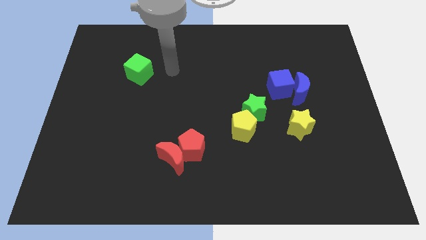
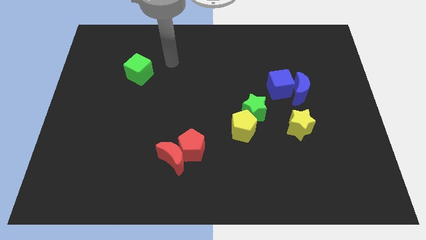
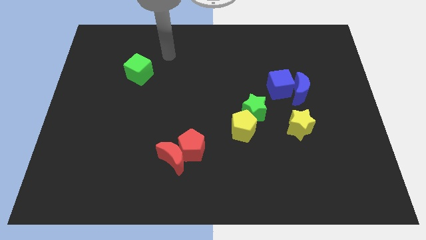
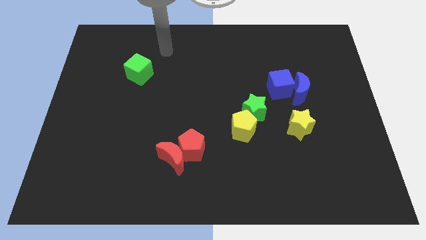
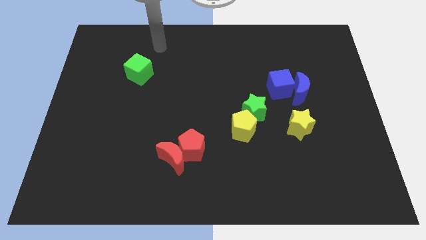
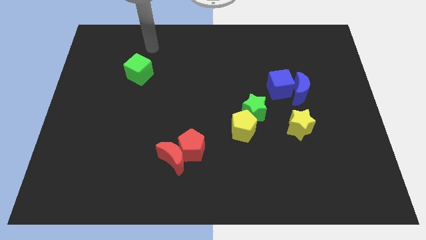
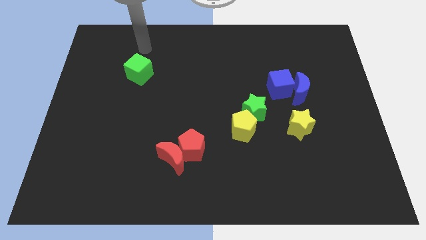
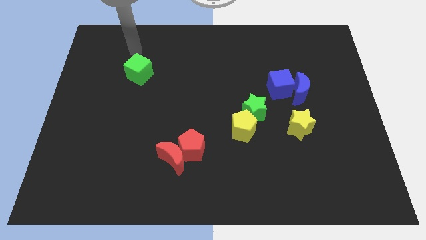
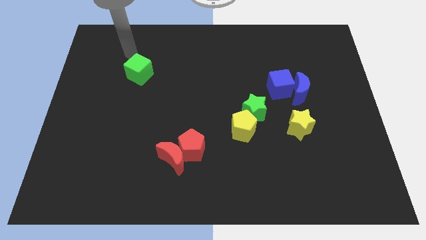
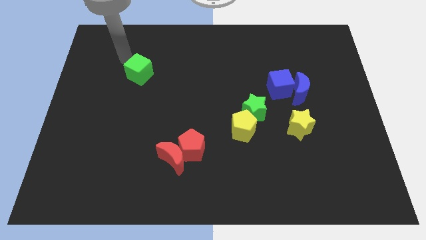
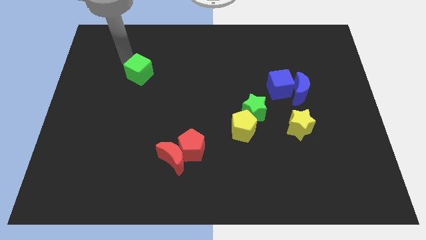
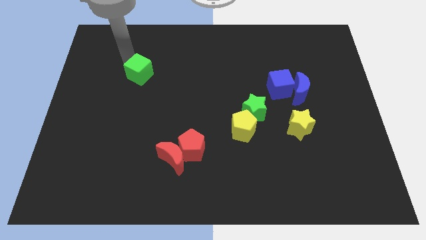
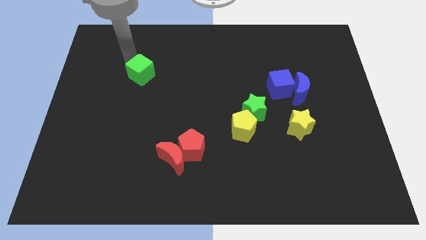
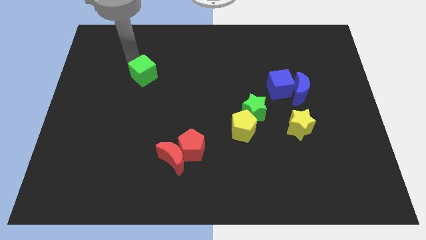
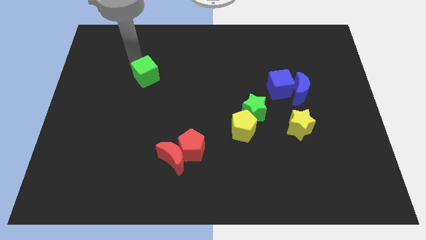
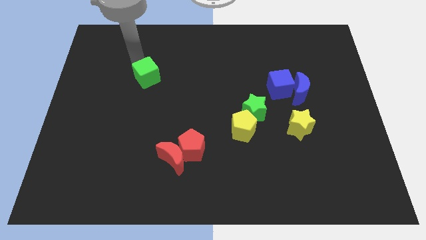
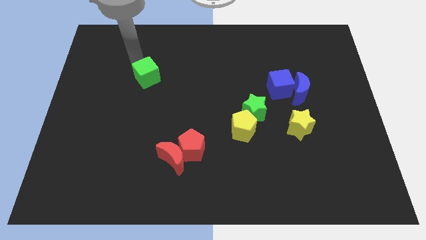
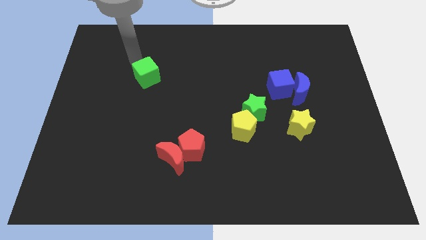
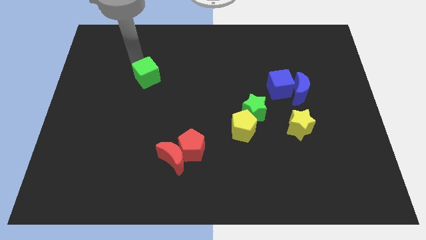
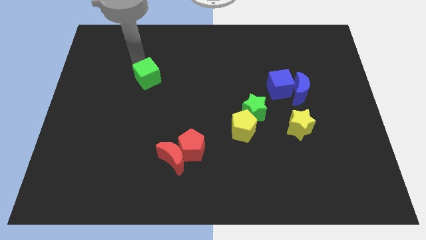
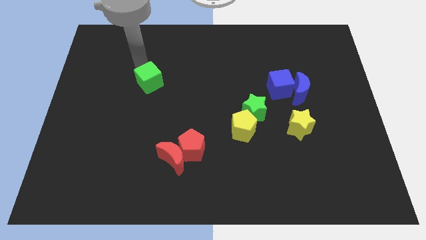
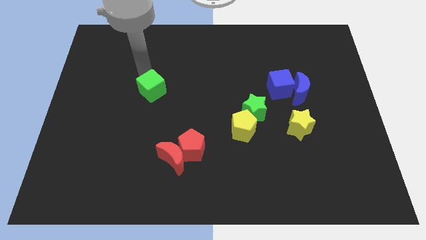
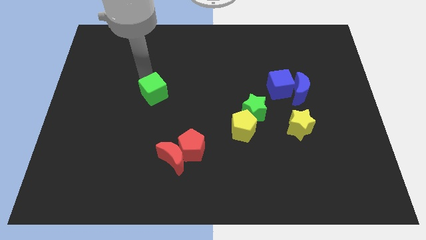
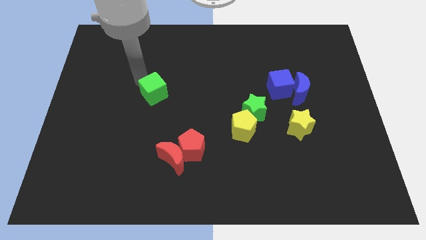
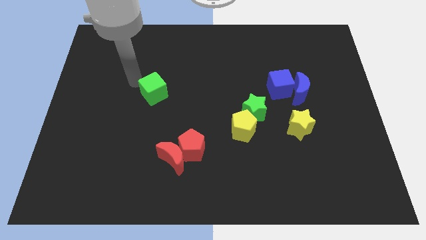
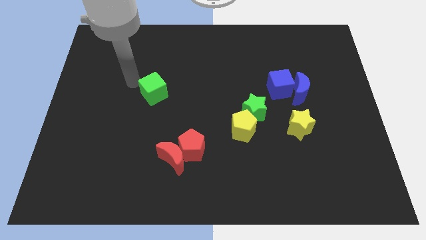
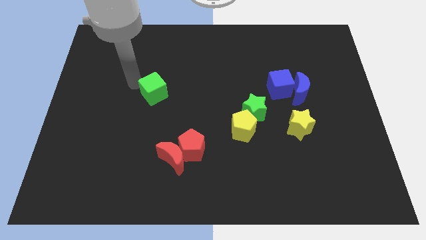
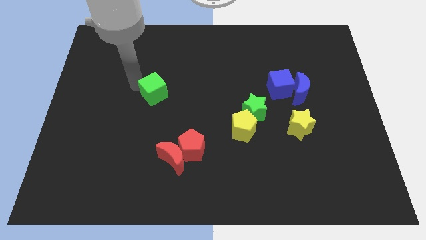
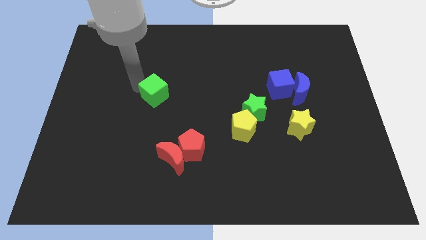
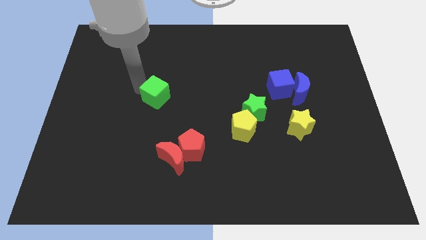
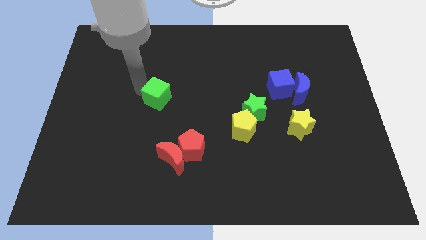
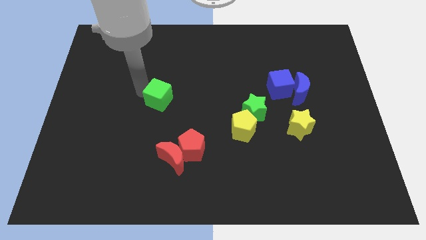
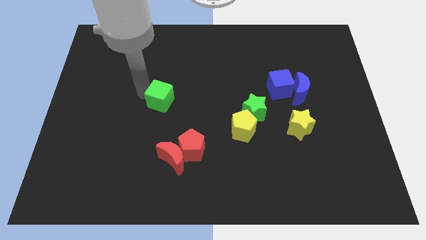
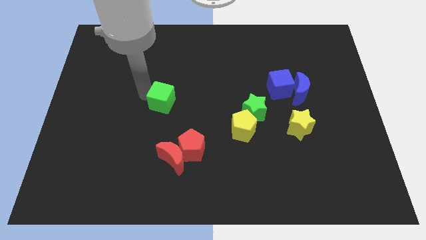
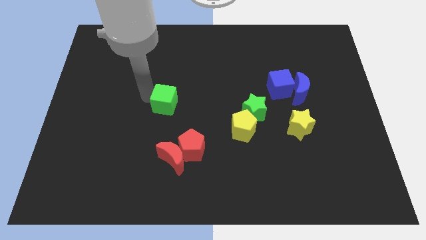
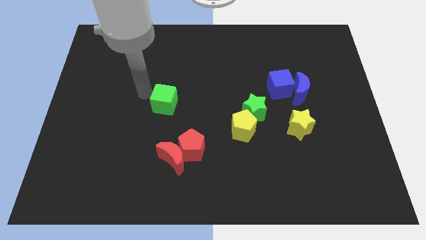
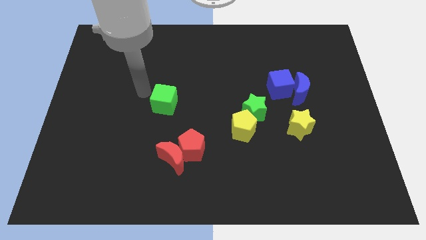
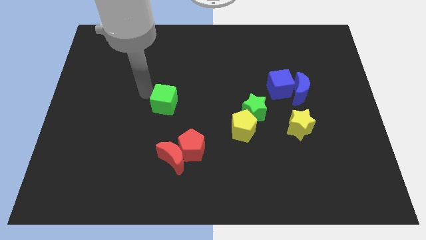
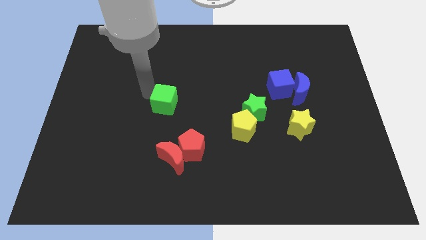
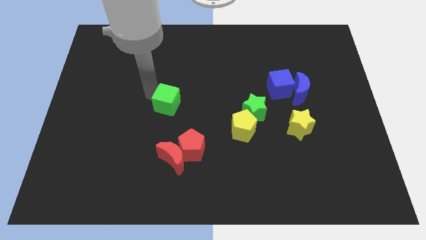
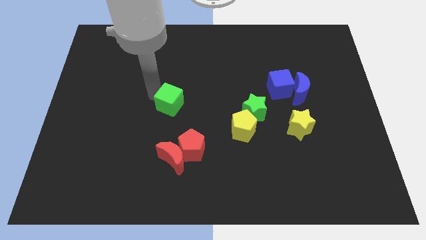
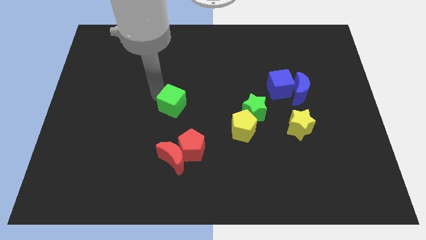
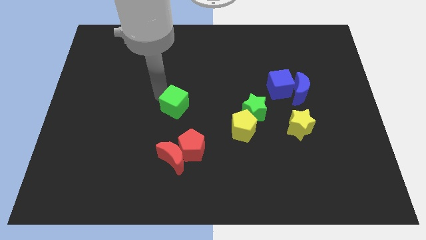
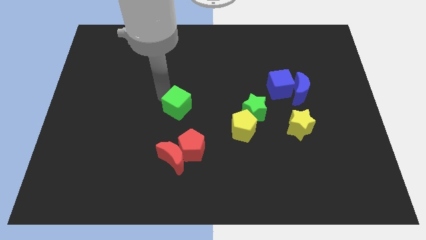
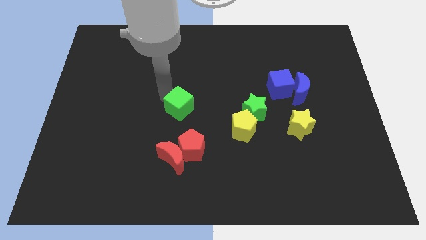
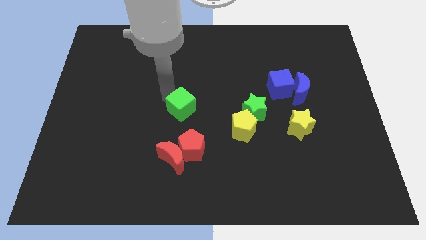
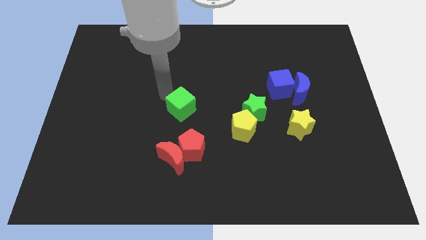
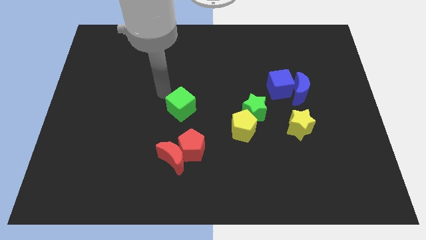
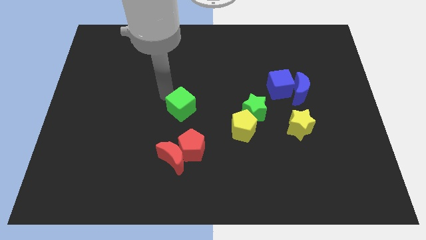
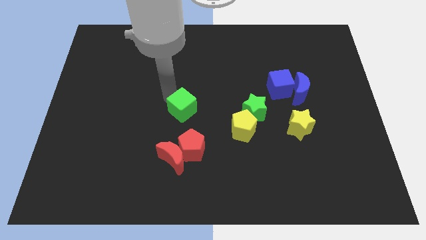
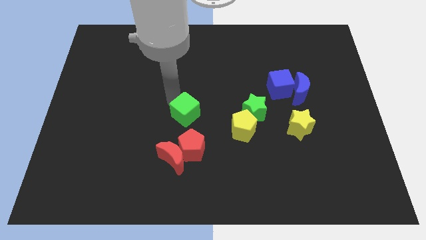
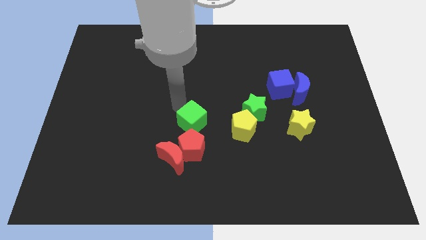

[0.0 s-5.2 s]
slide the green cube diagonally downwards and right

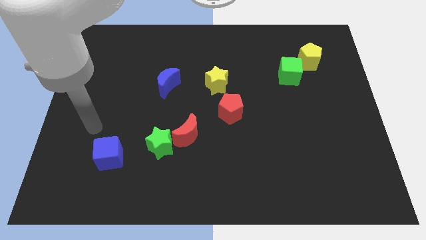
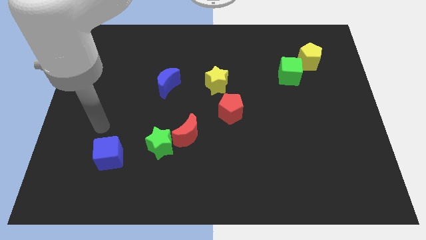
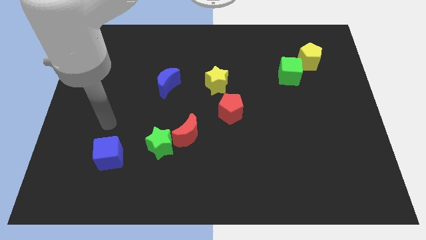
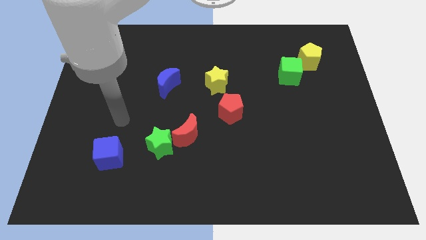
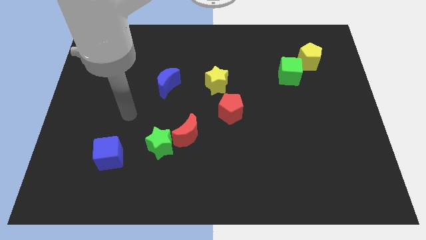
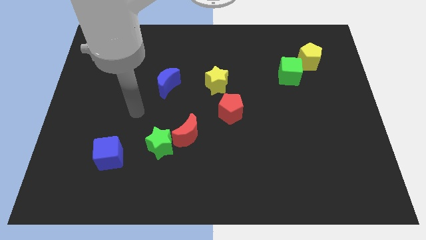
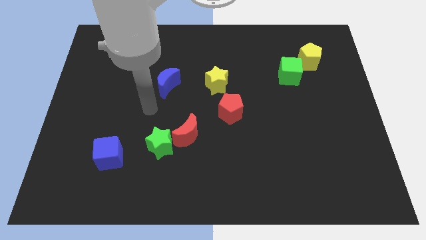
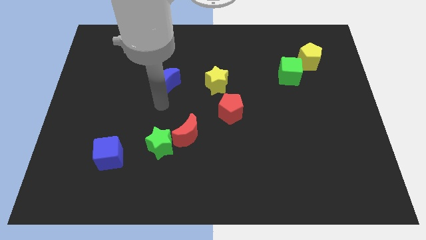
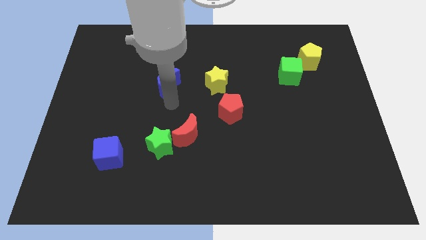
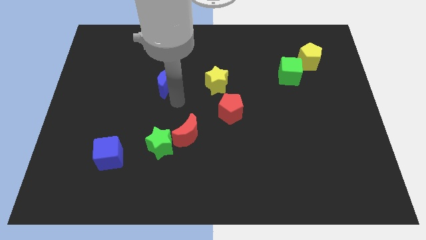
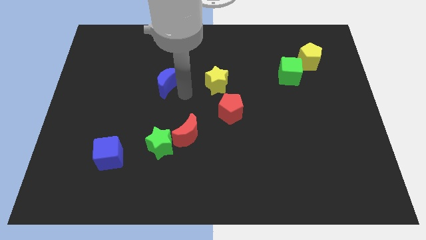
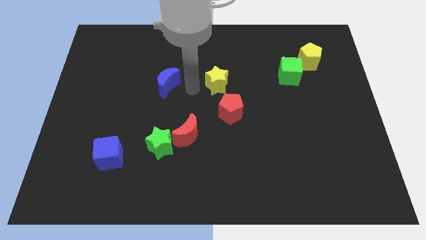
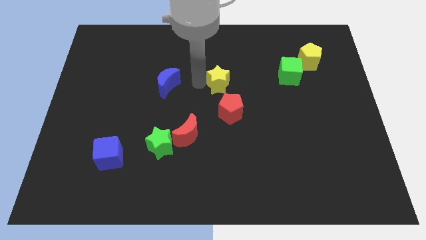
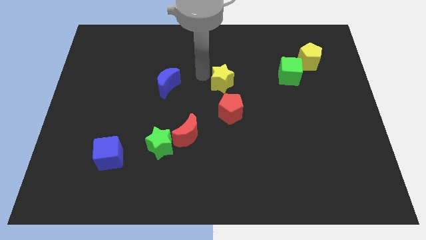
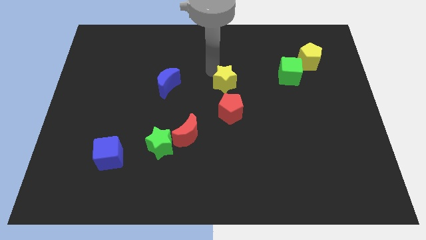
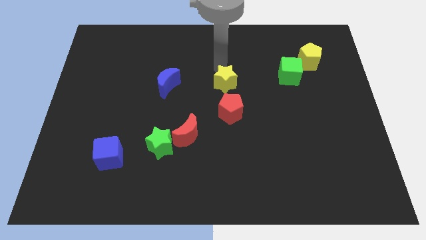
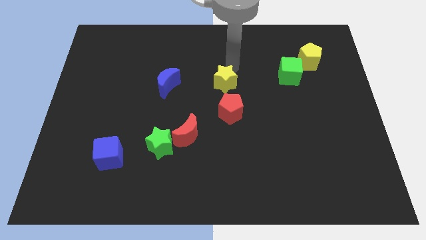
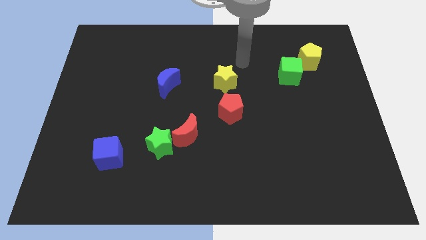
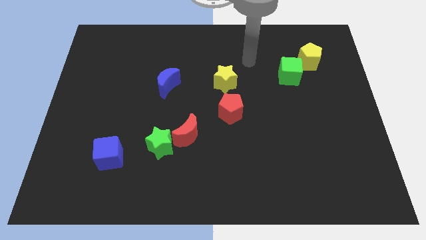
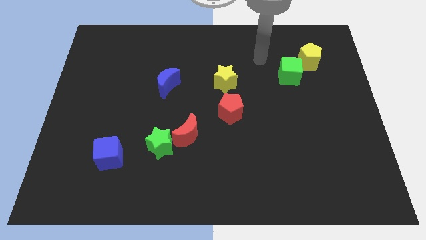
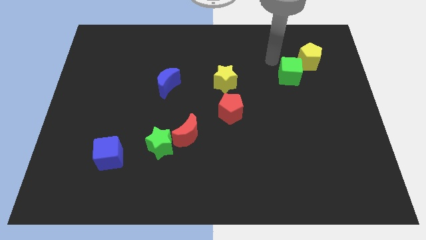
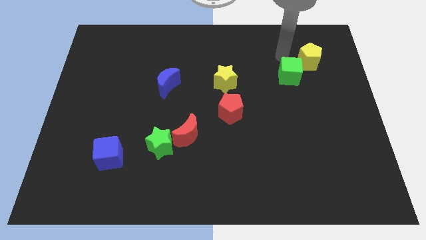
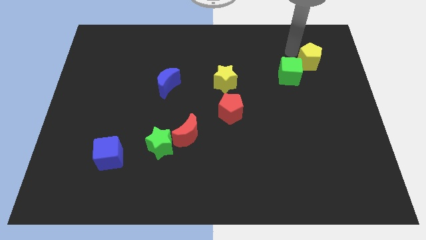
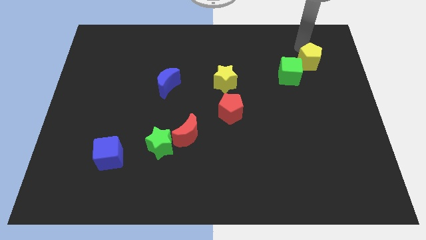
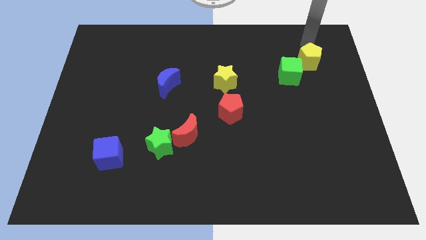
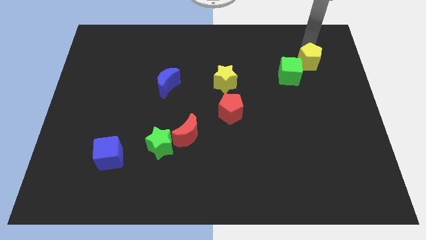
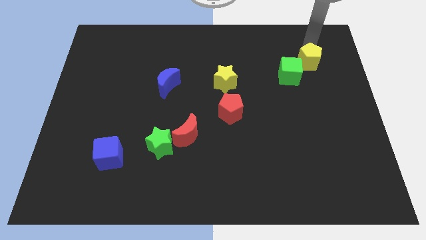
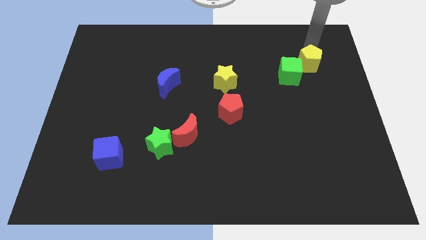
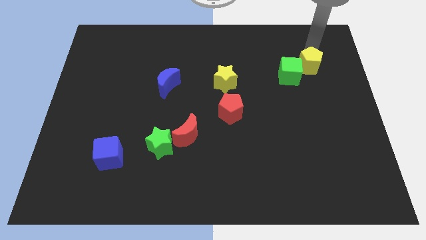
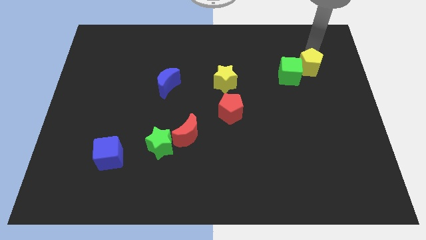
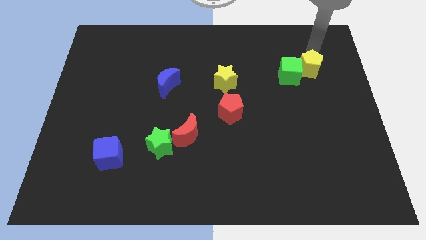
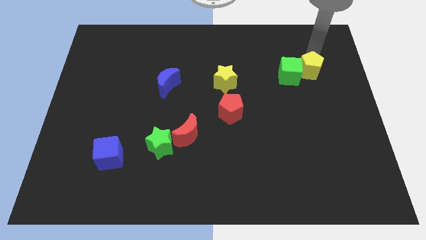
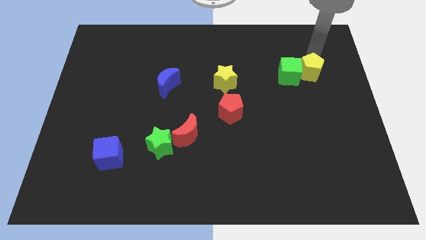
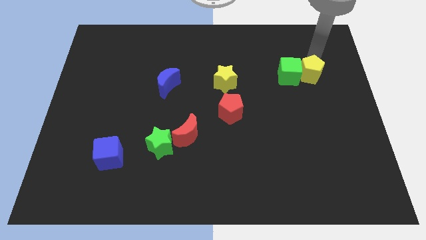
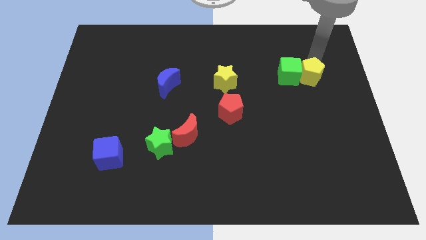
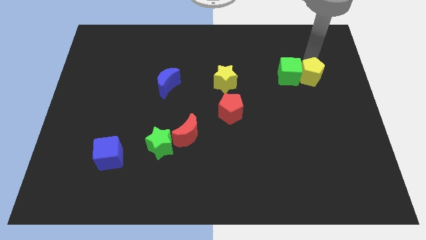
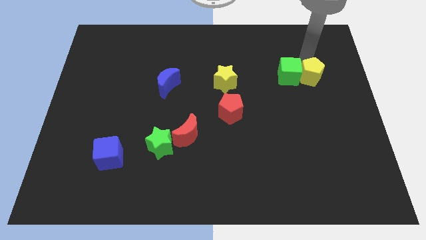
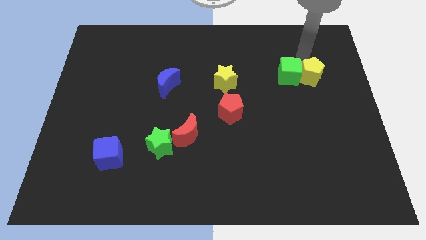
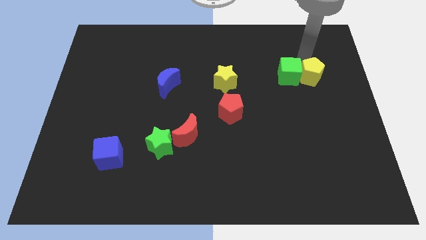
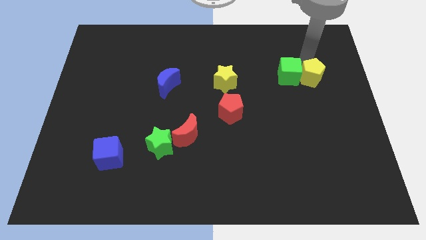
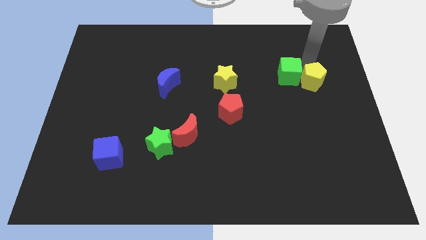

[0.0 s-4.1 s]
slightly slide the yellow pentagon down
